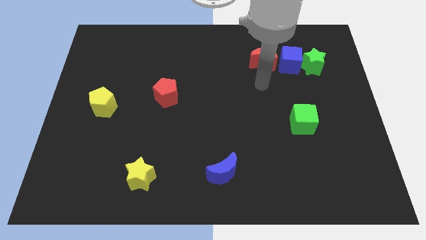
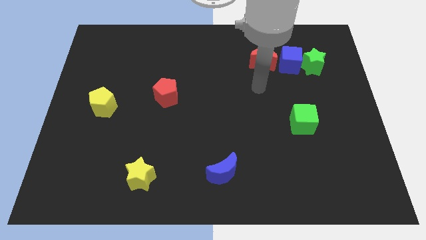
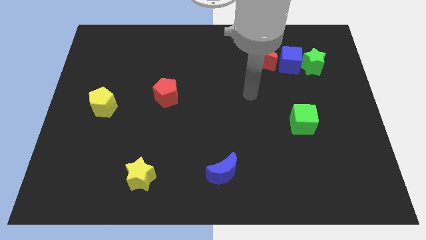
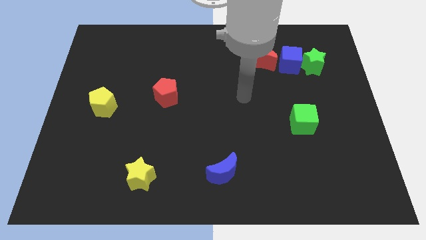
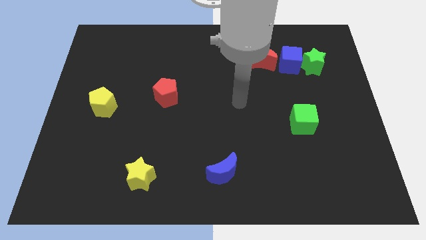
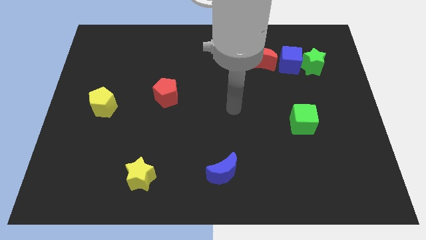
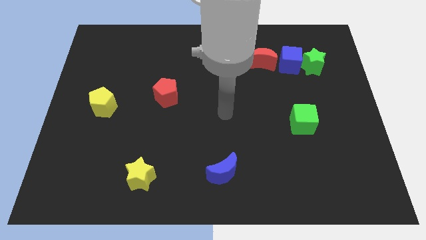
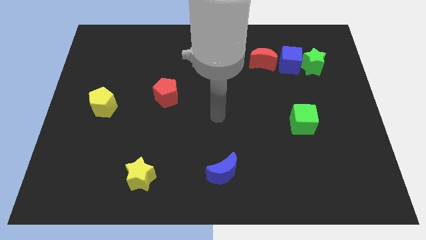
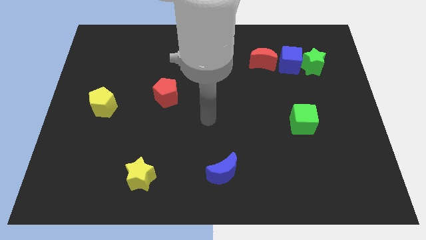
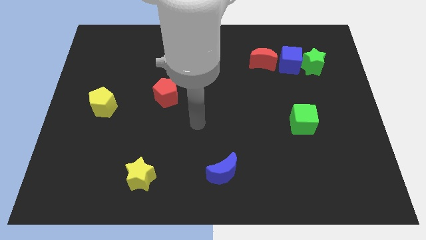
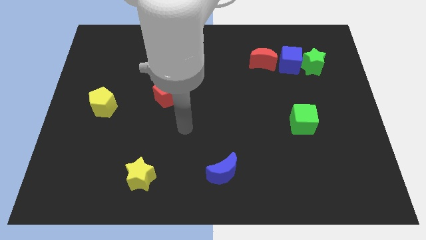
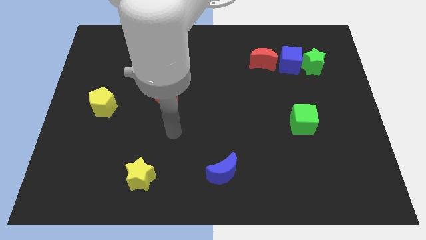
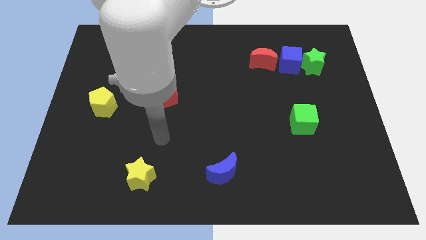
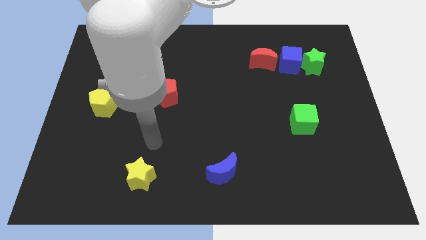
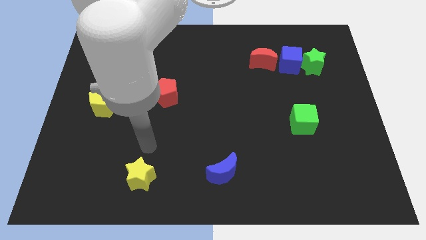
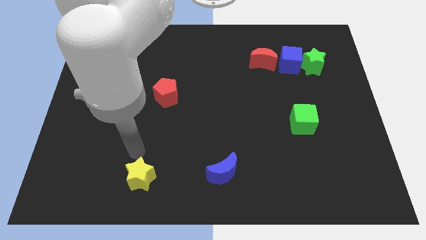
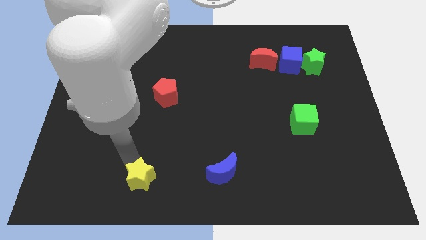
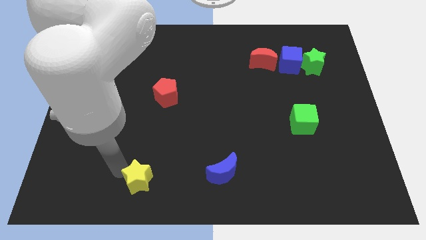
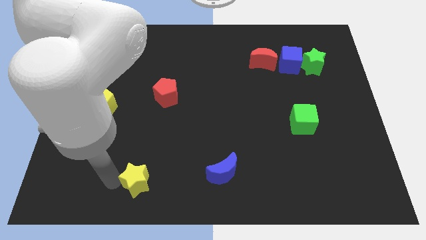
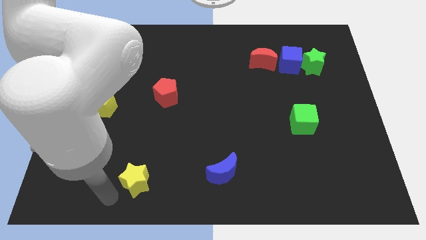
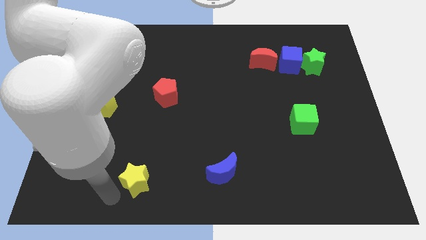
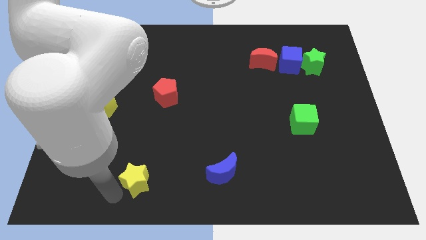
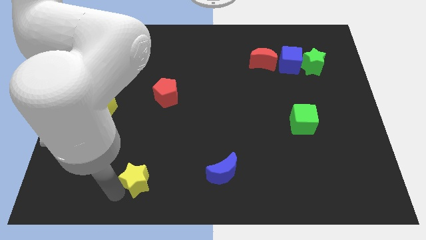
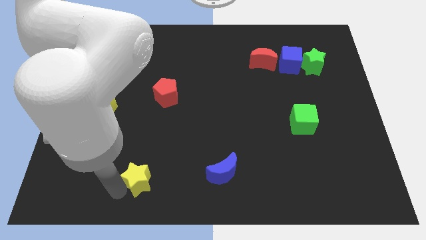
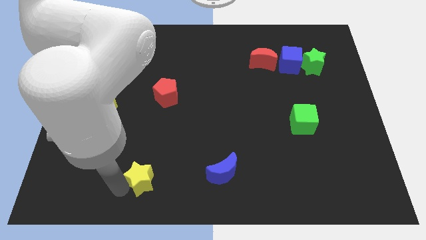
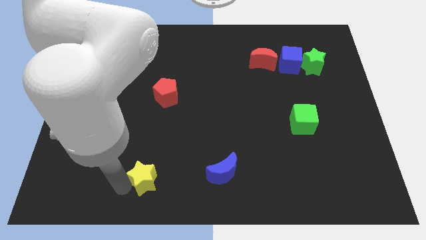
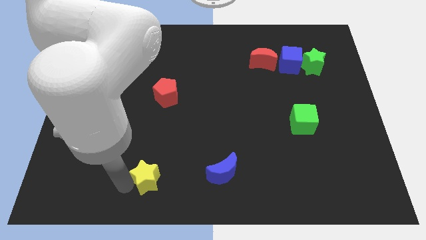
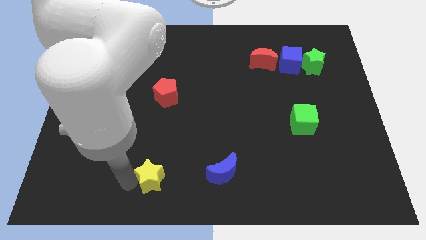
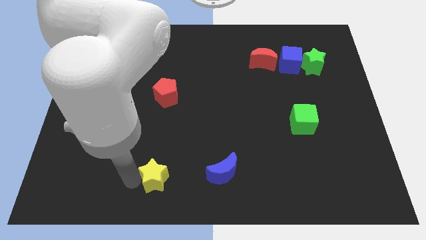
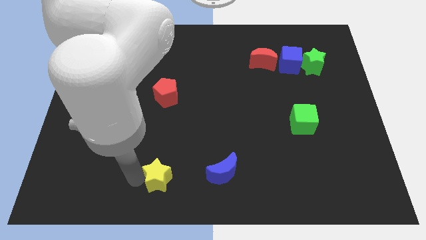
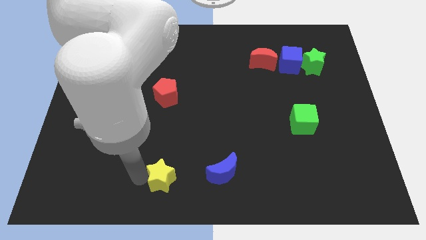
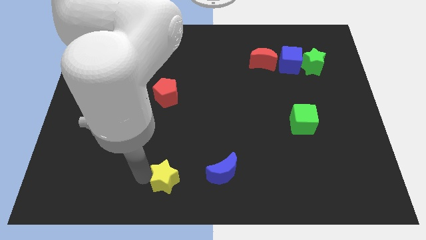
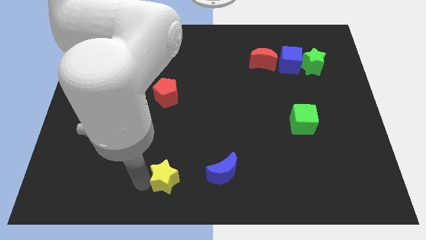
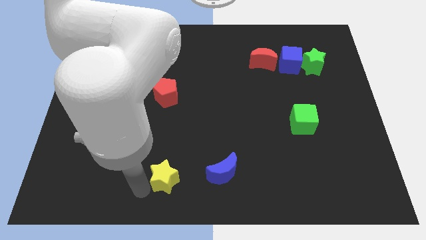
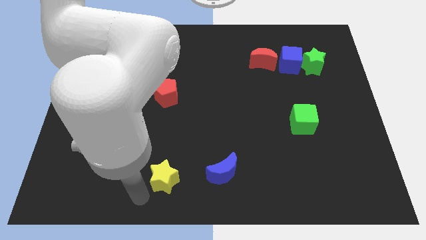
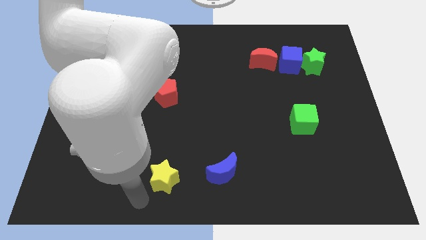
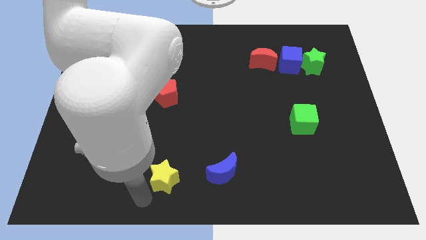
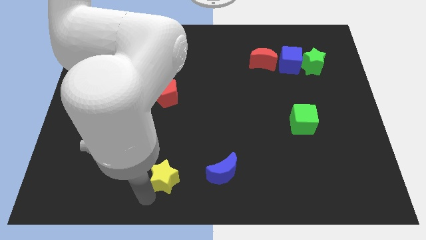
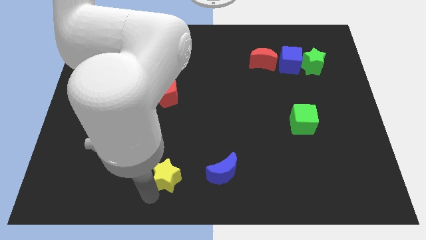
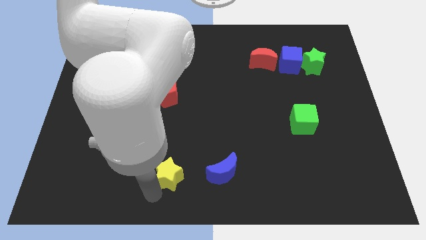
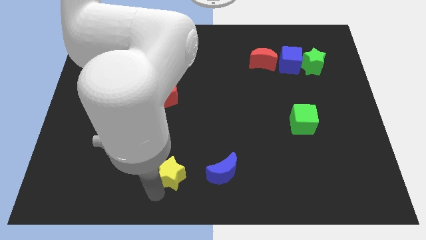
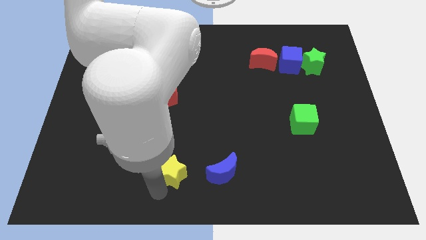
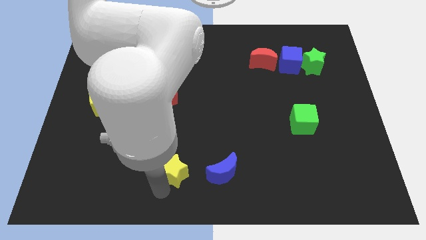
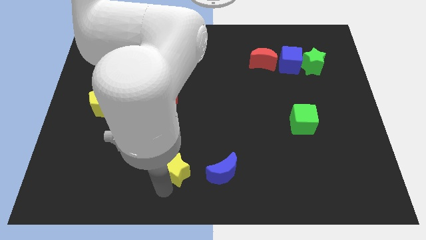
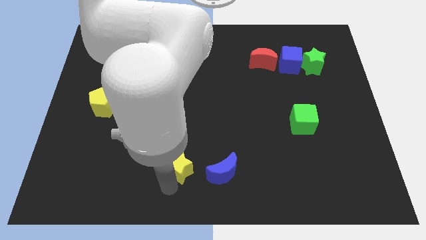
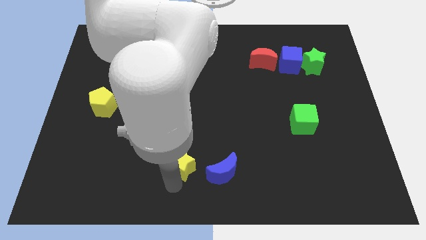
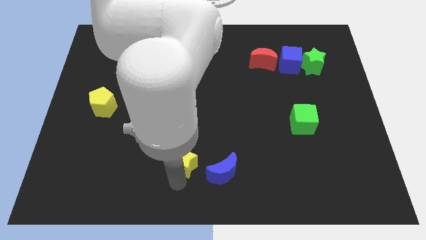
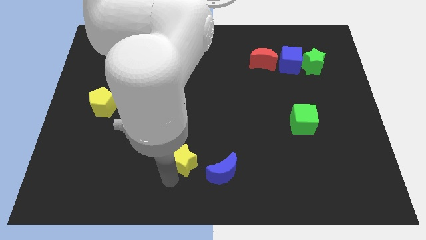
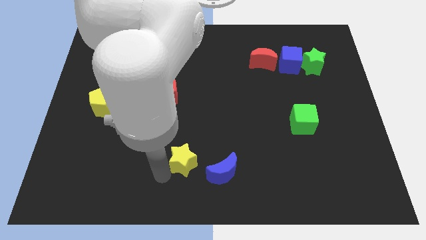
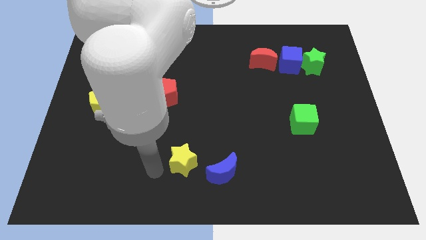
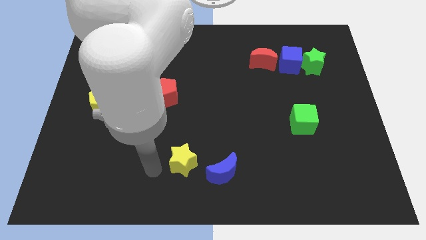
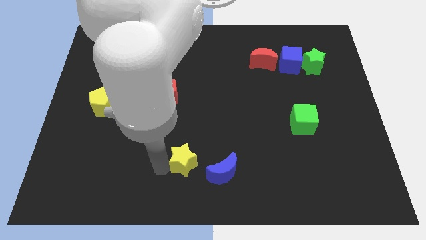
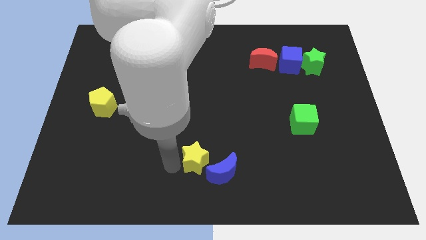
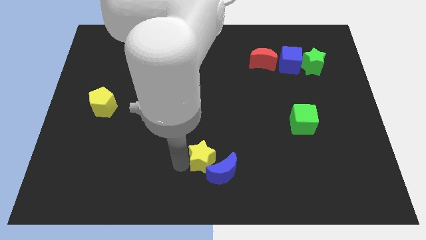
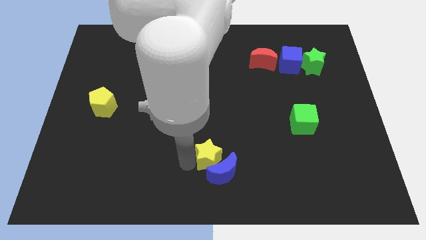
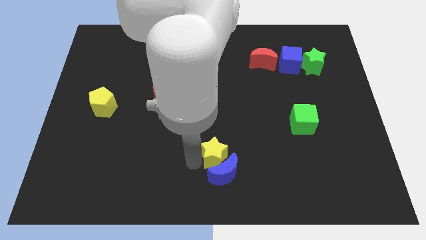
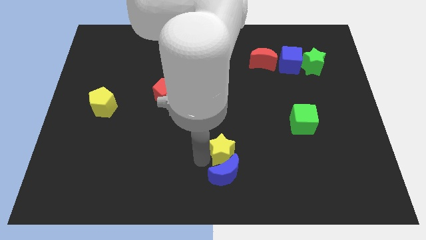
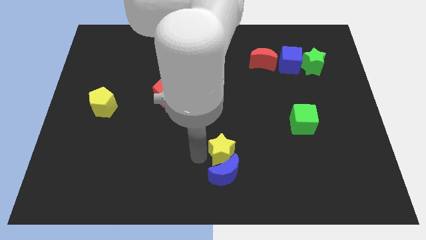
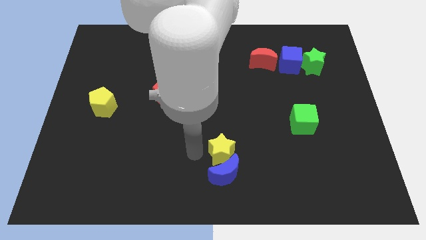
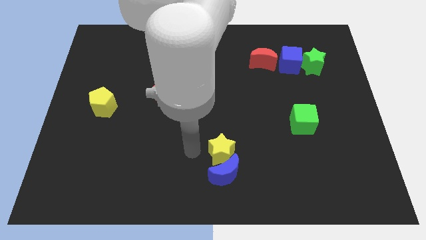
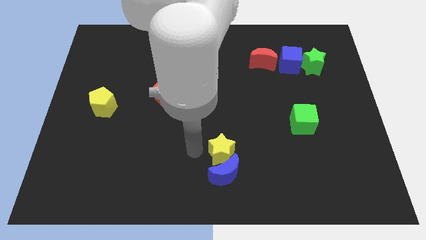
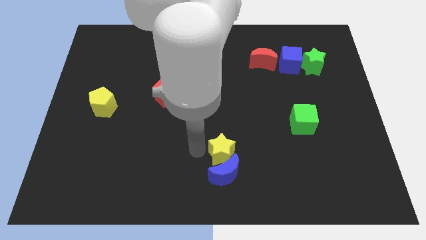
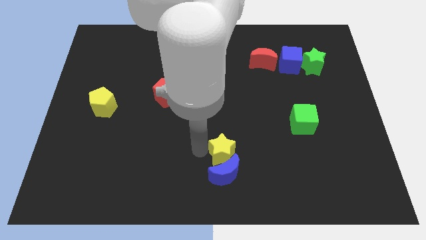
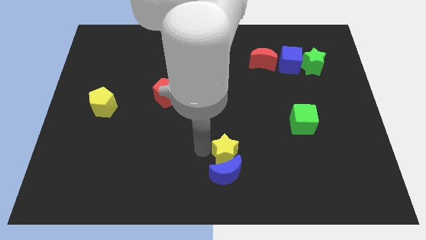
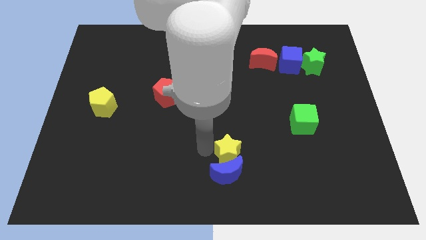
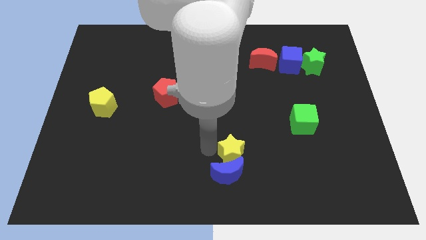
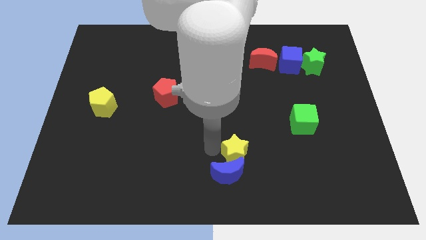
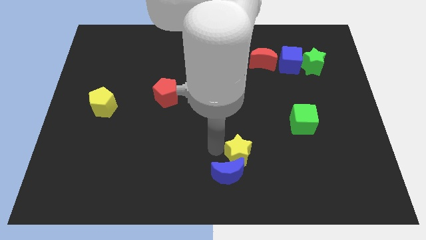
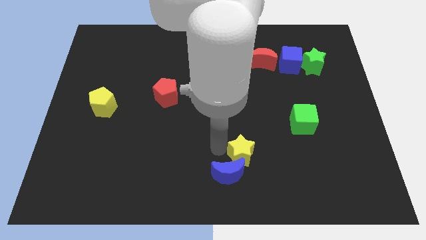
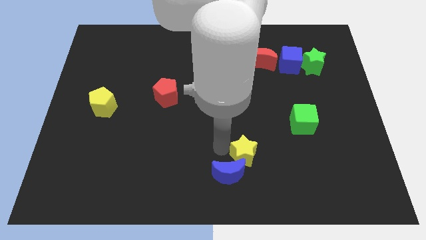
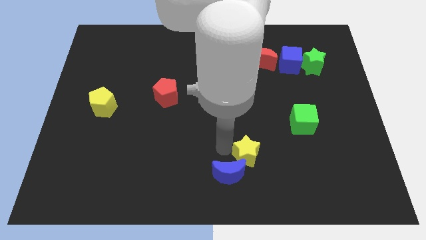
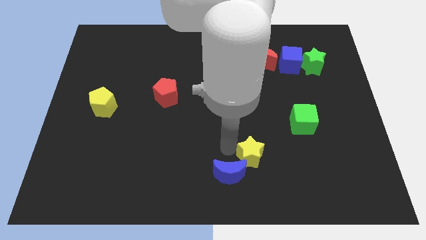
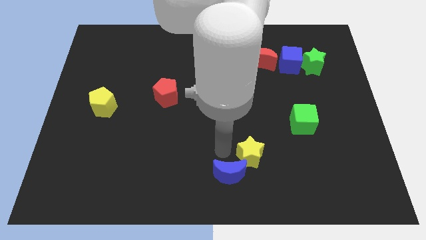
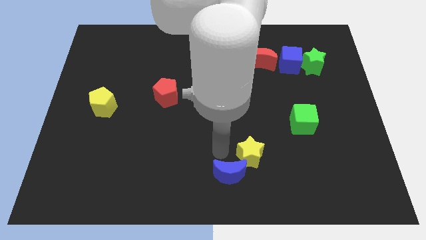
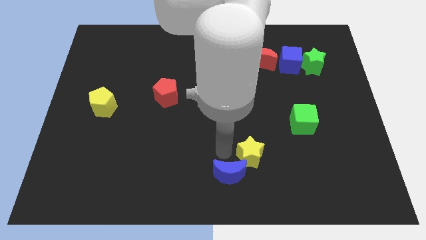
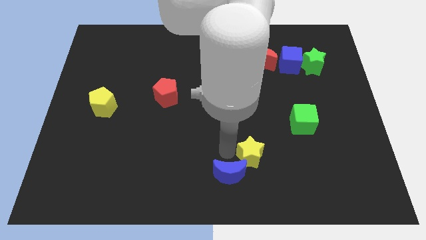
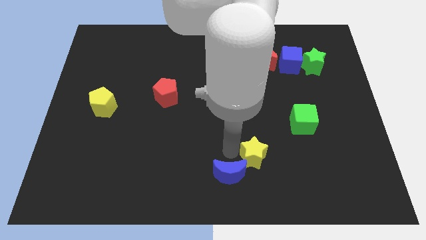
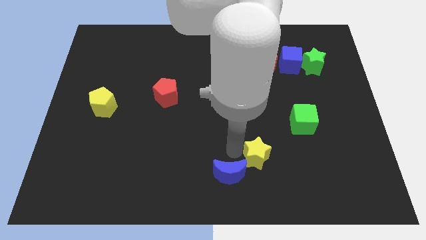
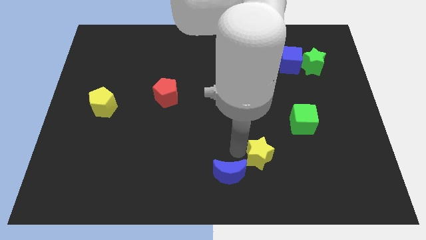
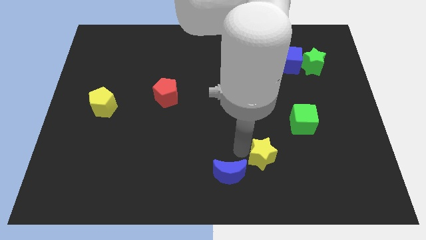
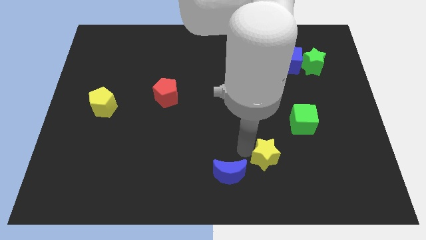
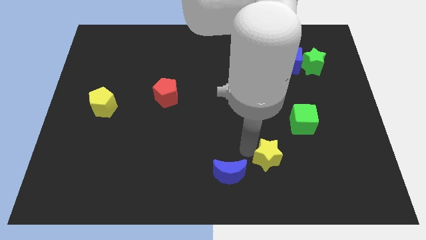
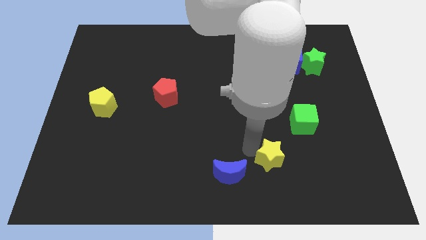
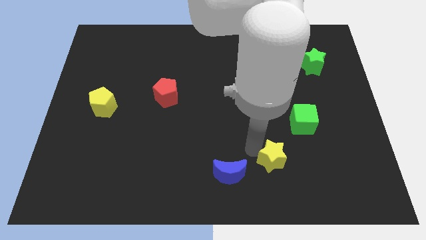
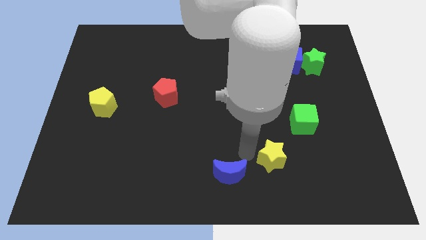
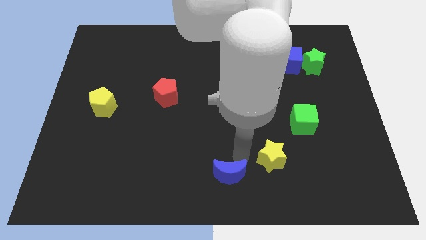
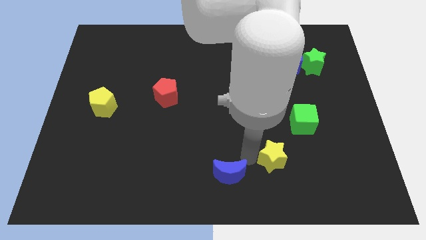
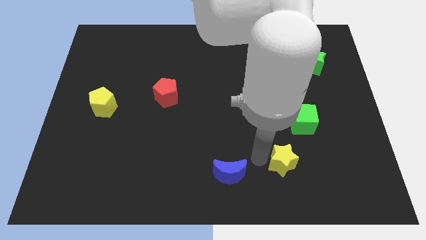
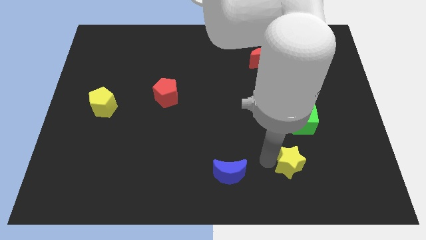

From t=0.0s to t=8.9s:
slide the yellow star below the green cube
